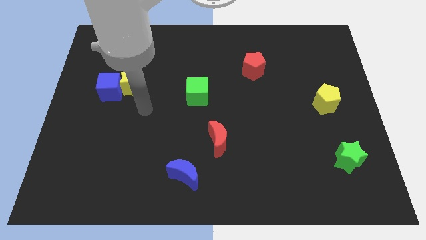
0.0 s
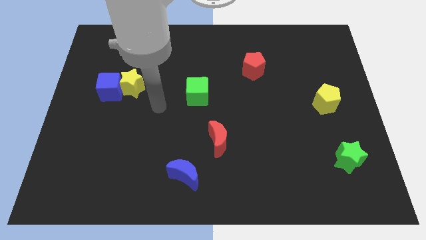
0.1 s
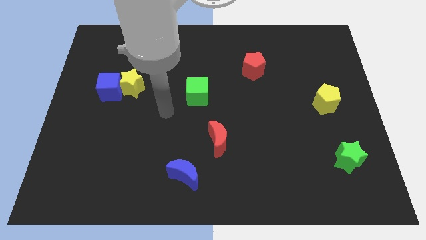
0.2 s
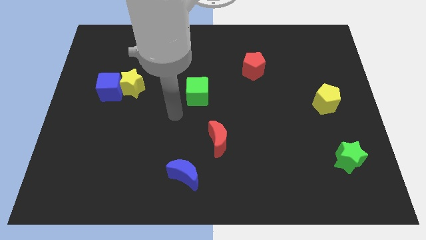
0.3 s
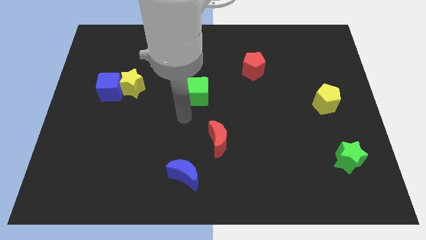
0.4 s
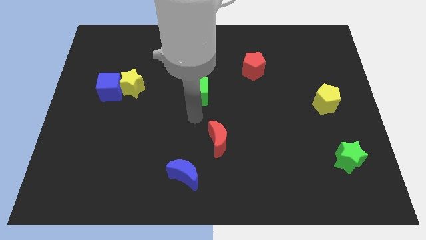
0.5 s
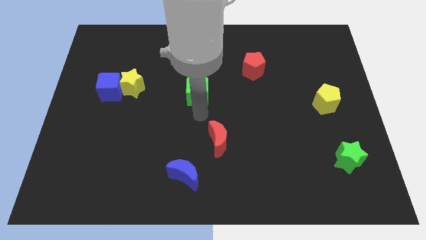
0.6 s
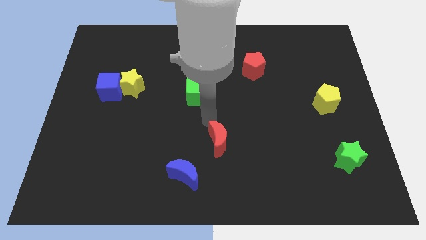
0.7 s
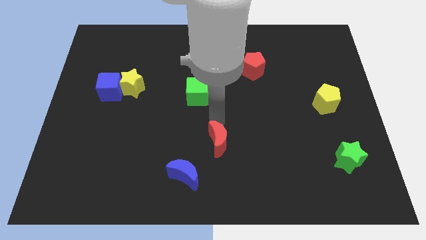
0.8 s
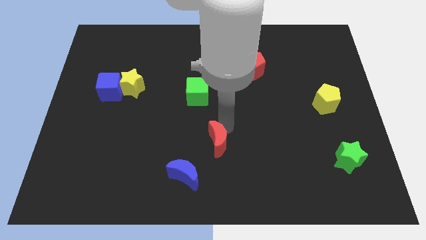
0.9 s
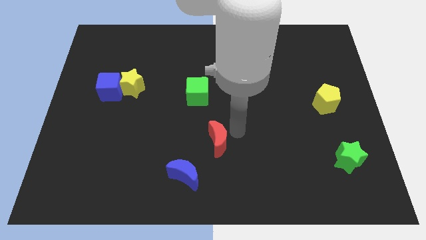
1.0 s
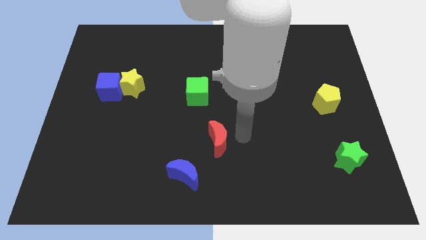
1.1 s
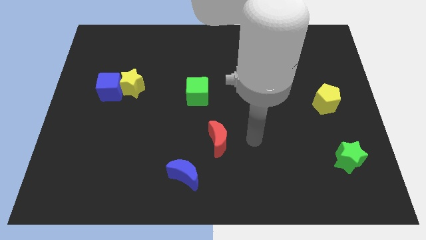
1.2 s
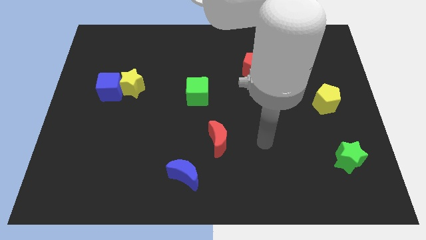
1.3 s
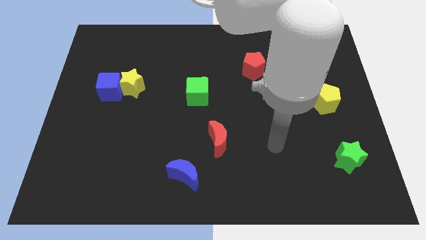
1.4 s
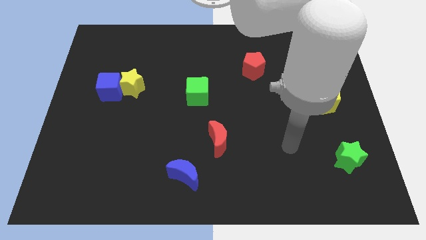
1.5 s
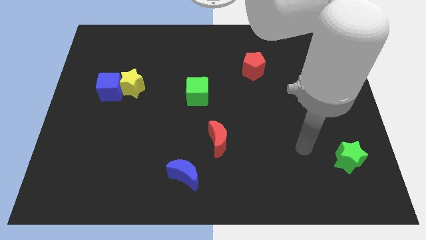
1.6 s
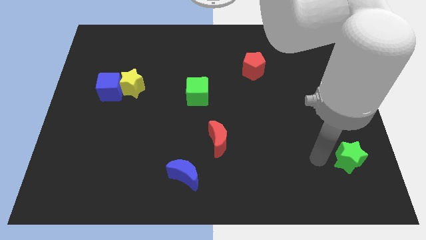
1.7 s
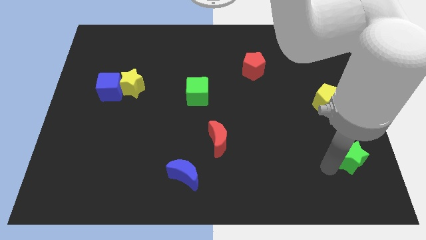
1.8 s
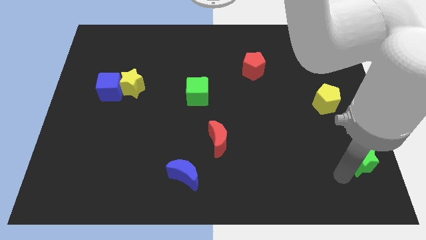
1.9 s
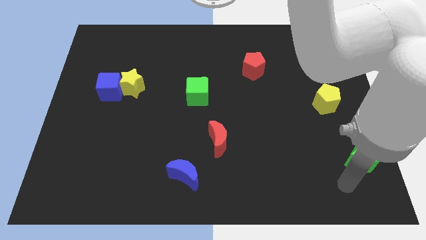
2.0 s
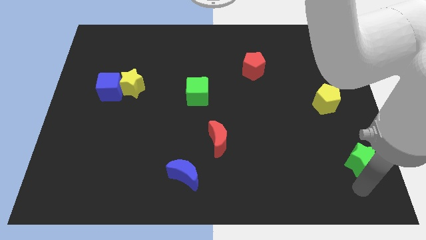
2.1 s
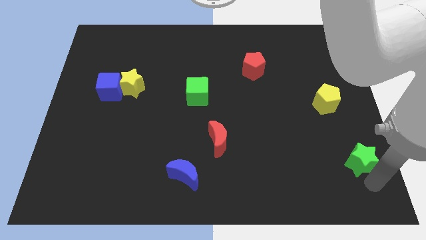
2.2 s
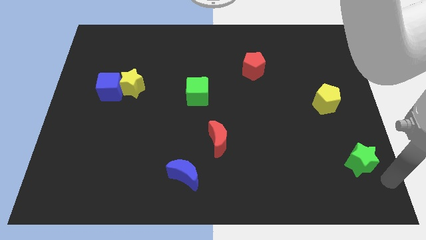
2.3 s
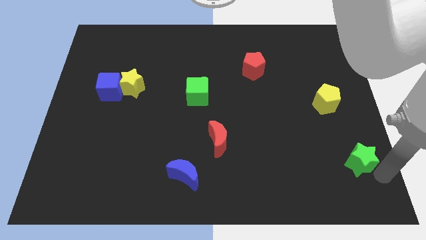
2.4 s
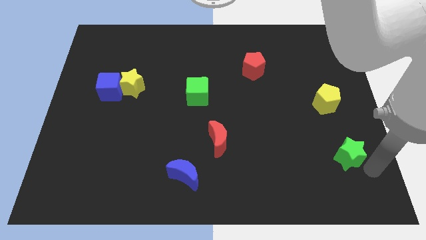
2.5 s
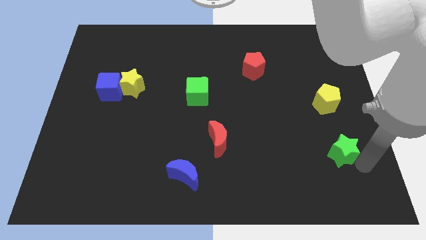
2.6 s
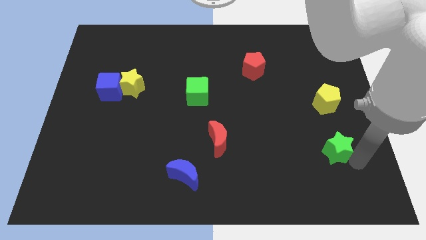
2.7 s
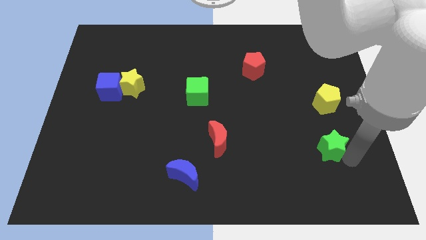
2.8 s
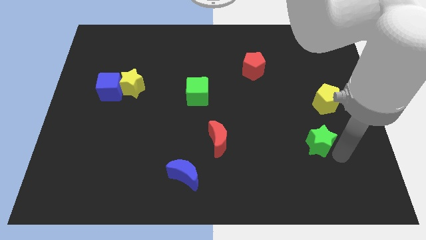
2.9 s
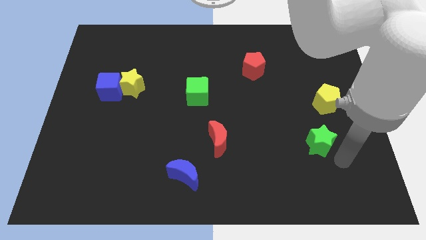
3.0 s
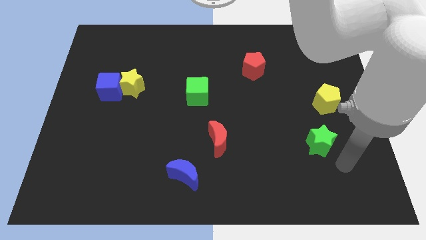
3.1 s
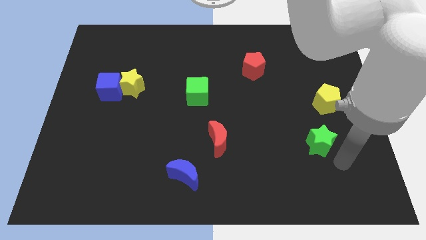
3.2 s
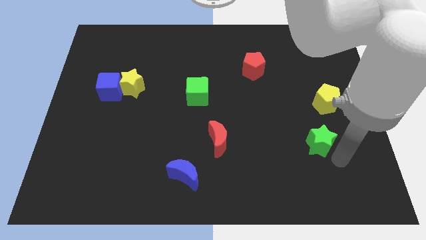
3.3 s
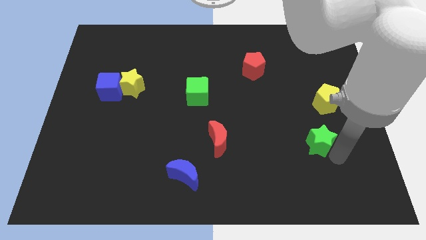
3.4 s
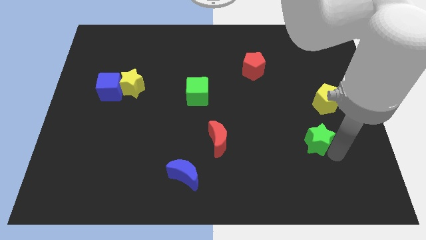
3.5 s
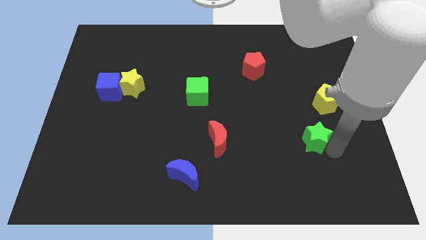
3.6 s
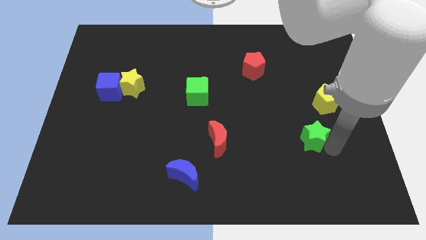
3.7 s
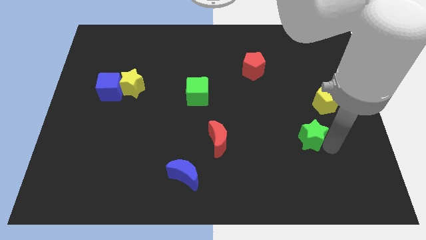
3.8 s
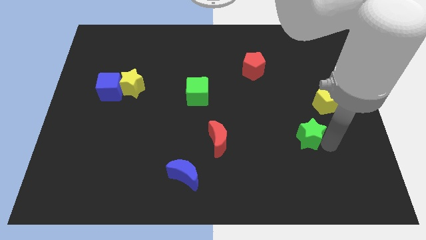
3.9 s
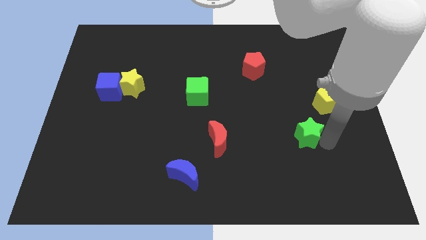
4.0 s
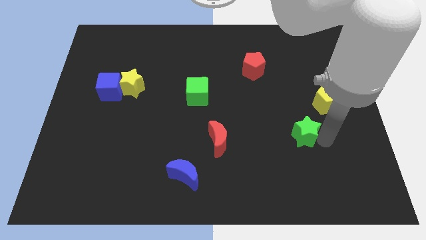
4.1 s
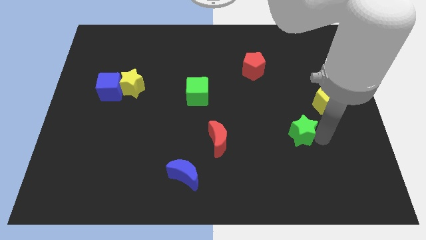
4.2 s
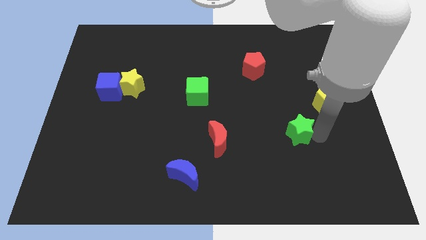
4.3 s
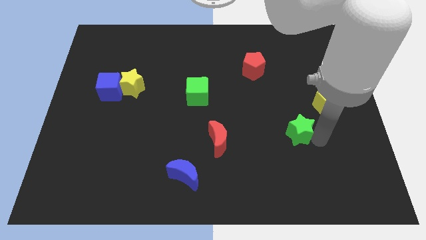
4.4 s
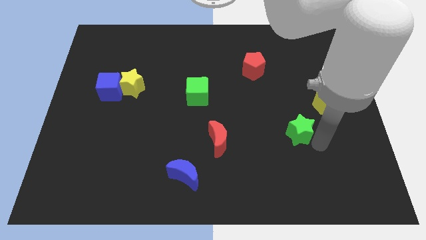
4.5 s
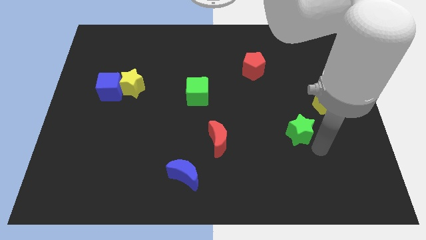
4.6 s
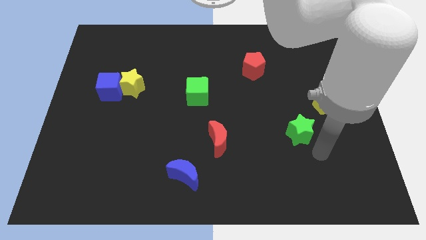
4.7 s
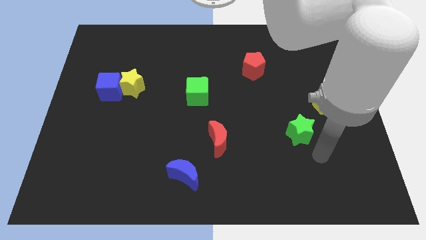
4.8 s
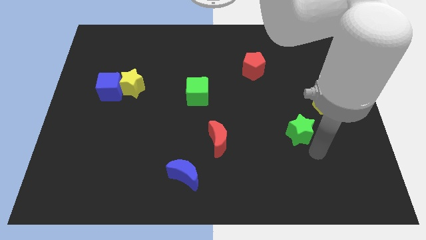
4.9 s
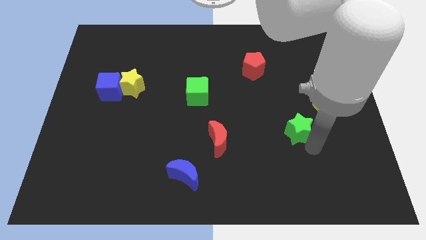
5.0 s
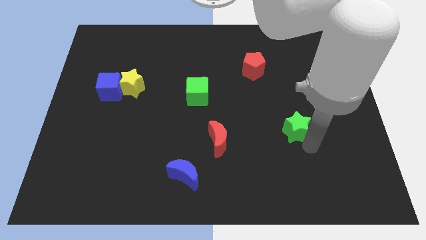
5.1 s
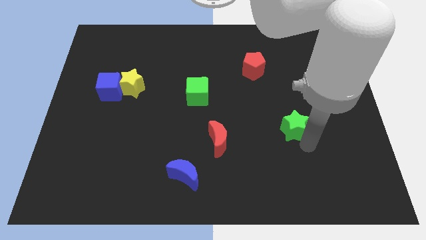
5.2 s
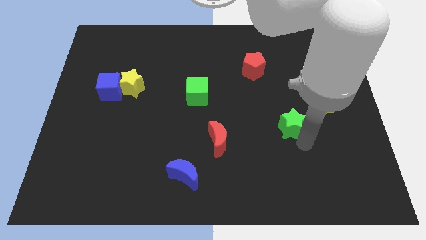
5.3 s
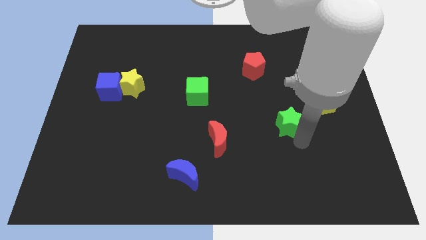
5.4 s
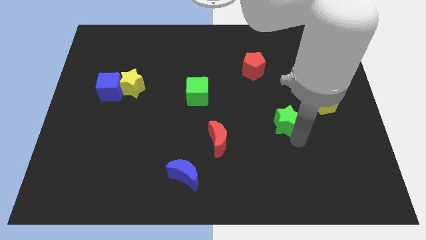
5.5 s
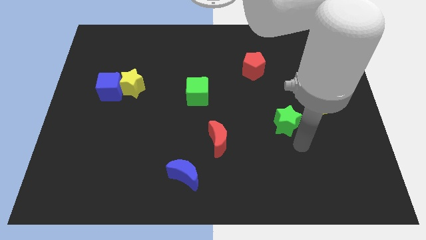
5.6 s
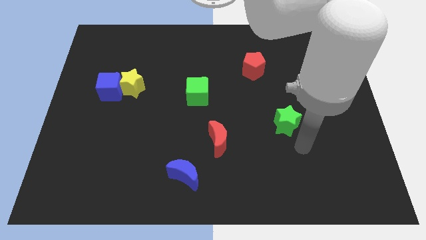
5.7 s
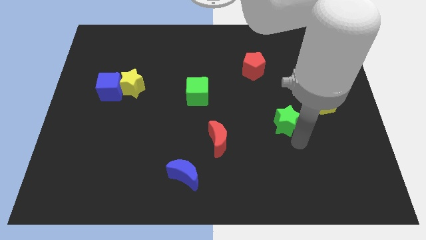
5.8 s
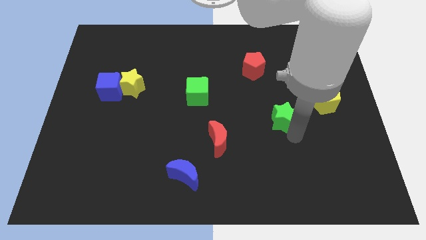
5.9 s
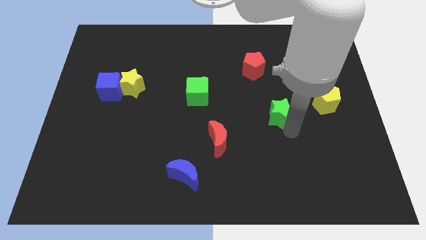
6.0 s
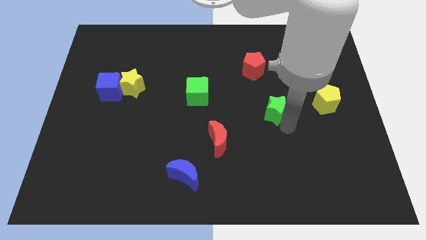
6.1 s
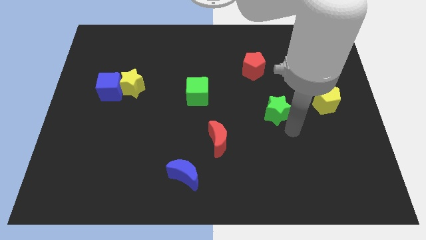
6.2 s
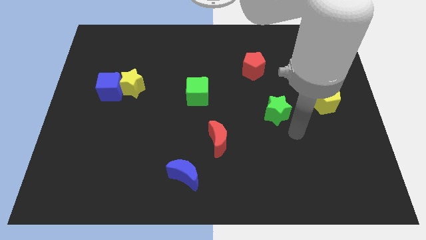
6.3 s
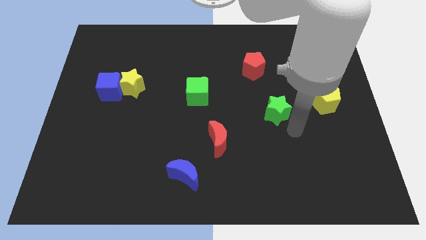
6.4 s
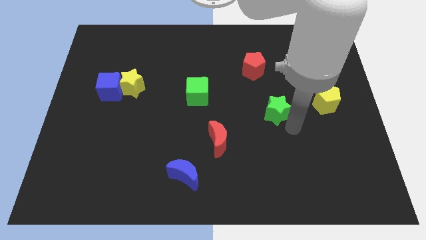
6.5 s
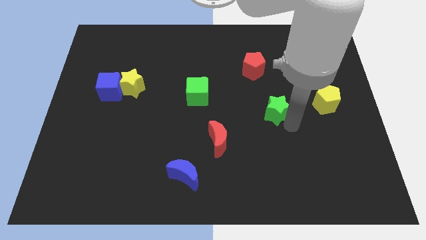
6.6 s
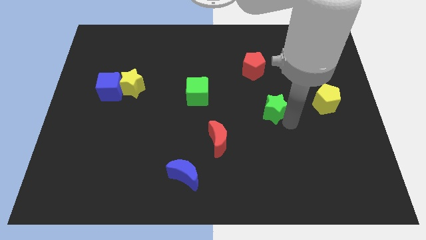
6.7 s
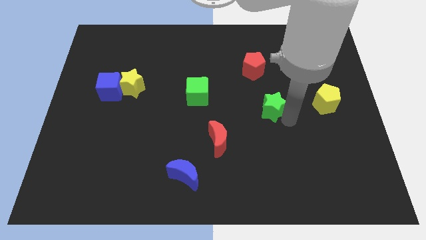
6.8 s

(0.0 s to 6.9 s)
move the green star up and left

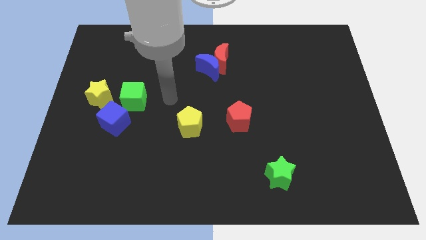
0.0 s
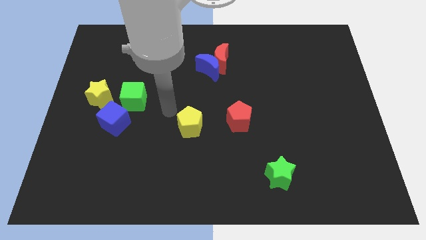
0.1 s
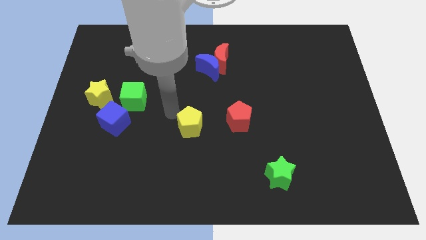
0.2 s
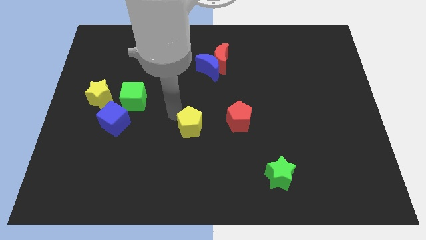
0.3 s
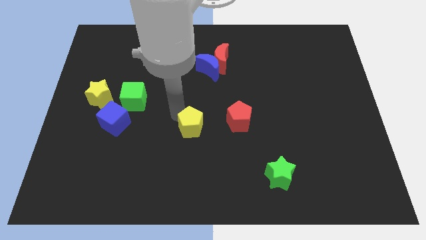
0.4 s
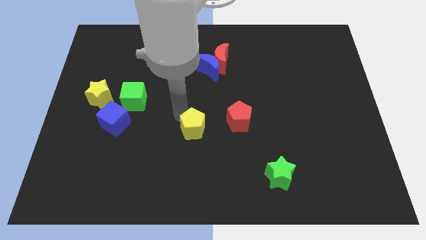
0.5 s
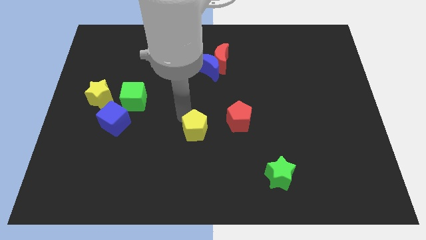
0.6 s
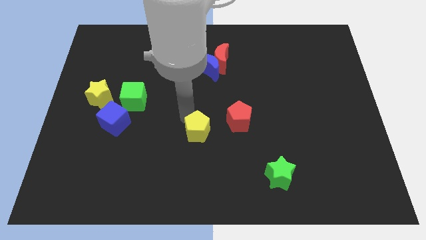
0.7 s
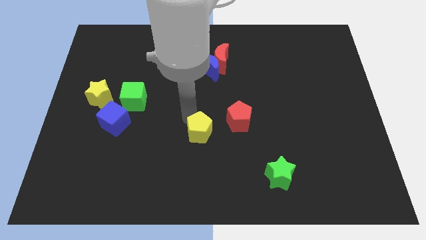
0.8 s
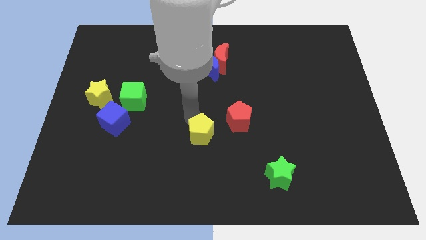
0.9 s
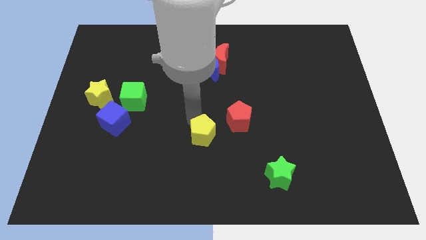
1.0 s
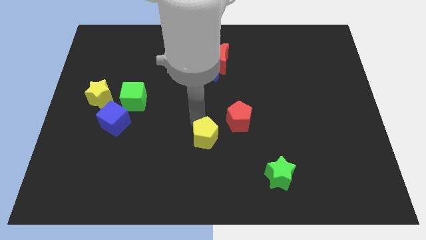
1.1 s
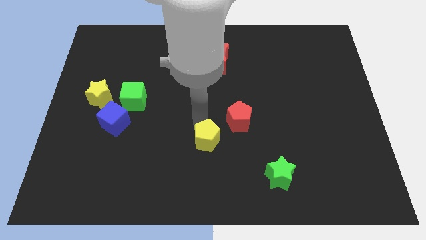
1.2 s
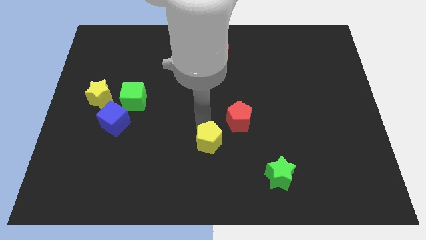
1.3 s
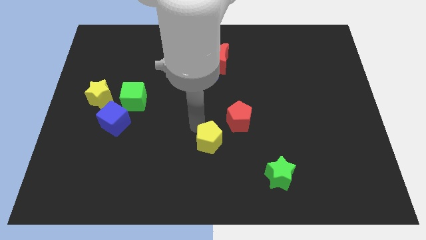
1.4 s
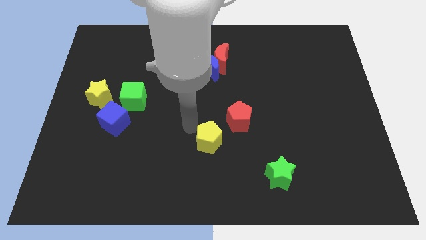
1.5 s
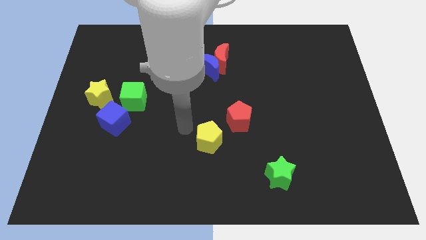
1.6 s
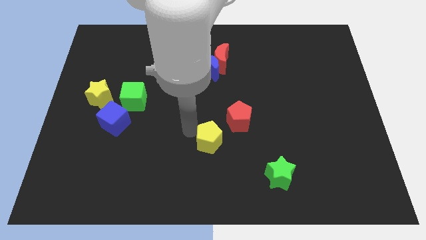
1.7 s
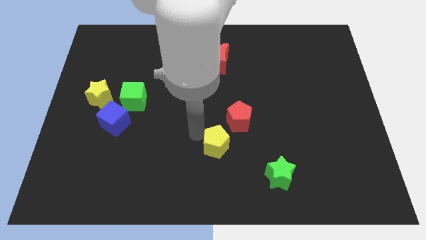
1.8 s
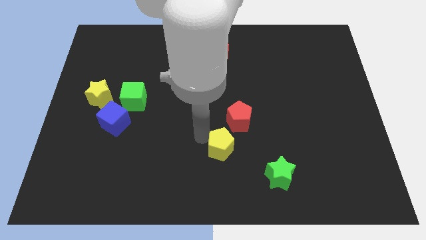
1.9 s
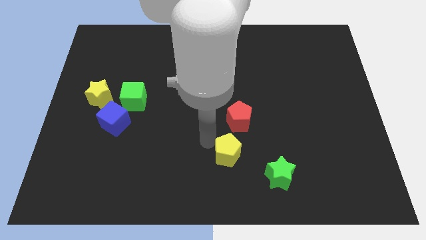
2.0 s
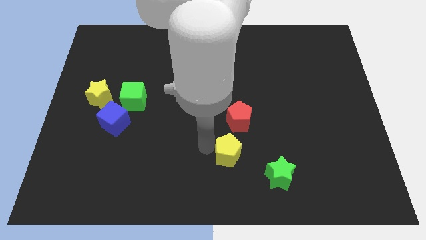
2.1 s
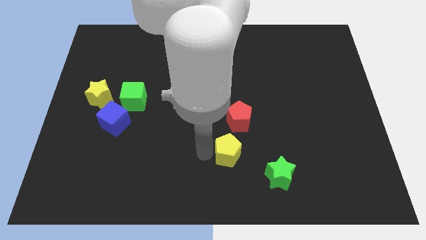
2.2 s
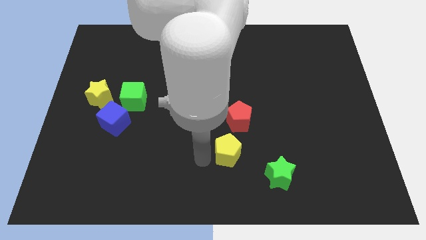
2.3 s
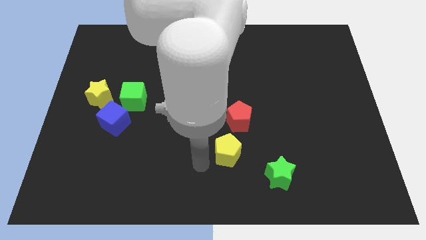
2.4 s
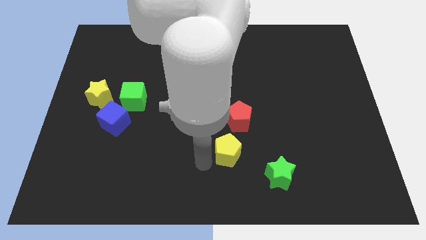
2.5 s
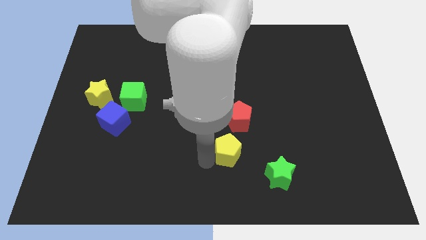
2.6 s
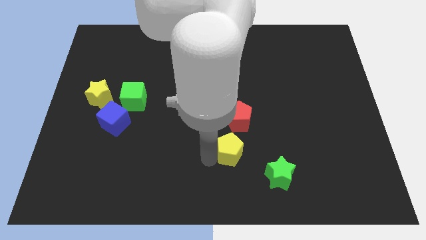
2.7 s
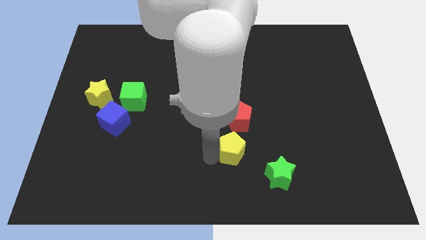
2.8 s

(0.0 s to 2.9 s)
slightly slide the yellow pentagon right
